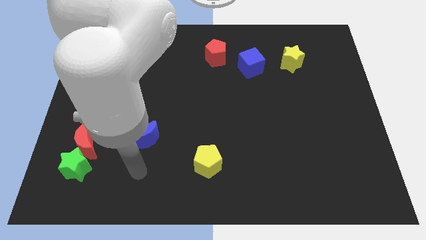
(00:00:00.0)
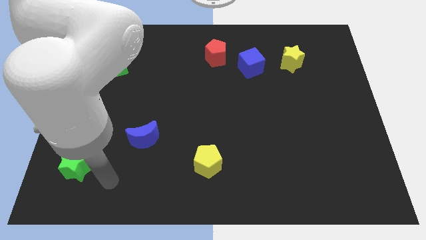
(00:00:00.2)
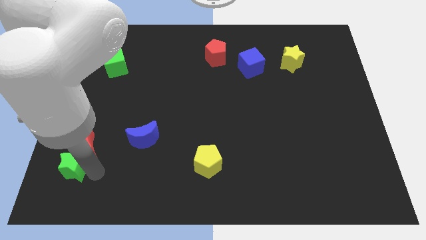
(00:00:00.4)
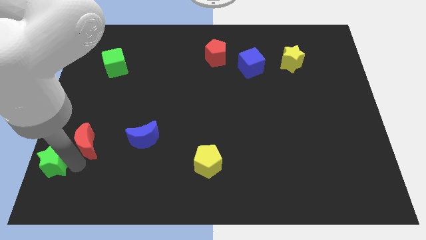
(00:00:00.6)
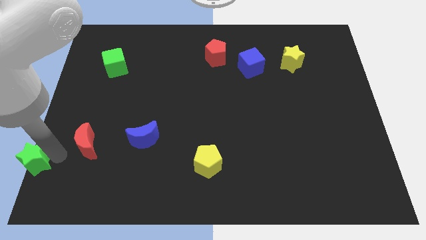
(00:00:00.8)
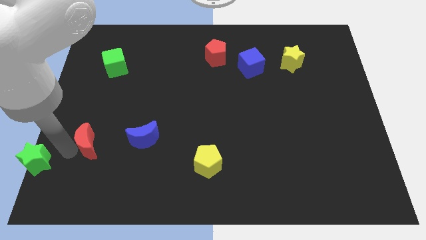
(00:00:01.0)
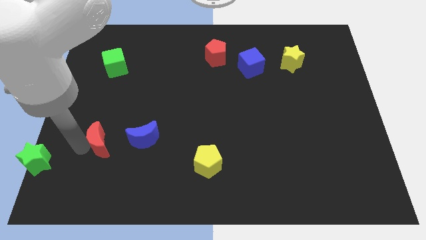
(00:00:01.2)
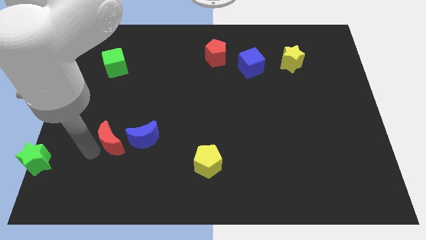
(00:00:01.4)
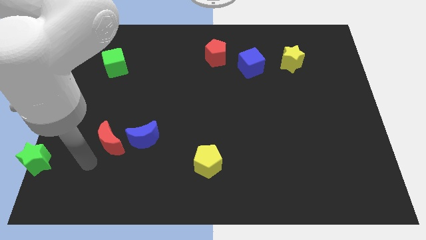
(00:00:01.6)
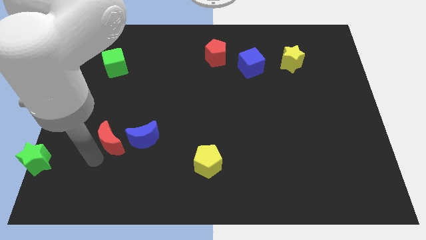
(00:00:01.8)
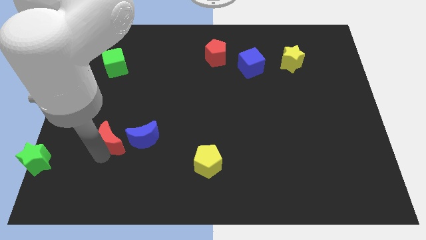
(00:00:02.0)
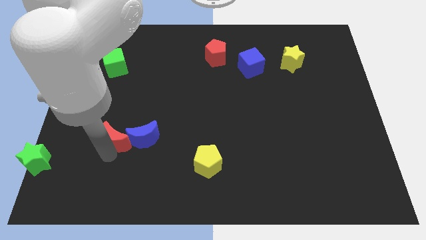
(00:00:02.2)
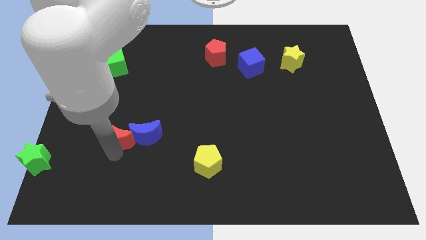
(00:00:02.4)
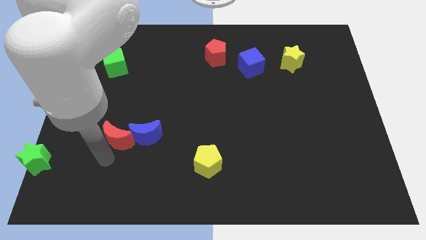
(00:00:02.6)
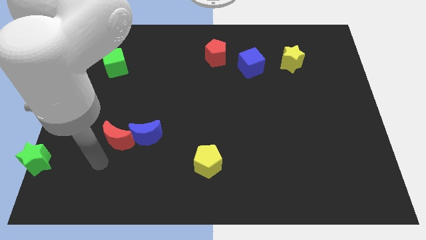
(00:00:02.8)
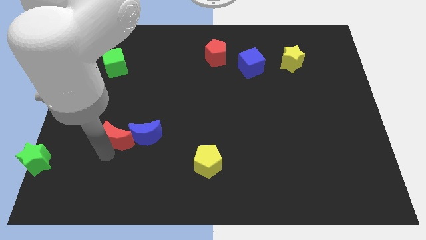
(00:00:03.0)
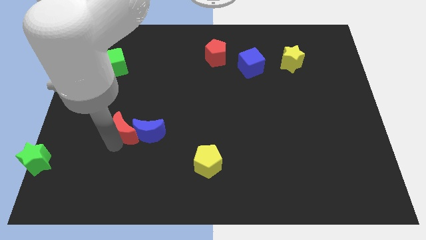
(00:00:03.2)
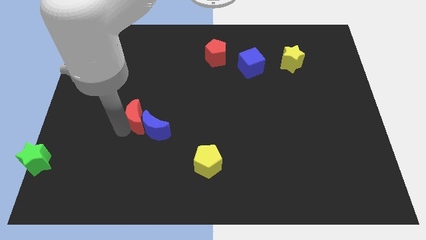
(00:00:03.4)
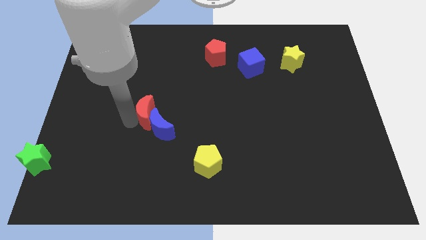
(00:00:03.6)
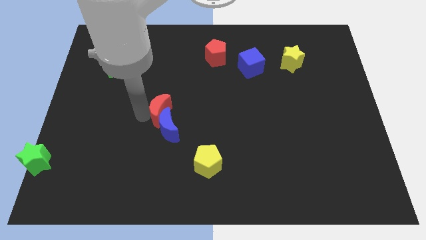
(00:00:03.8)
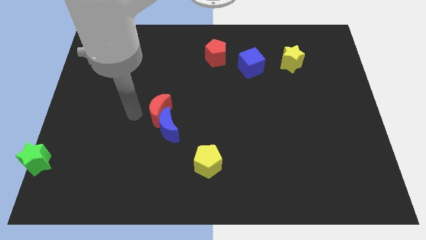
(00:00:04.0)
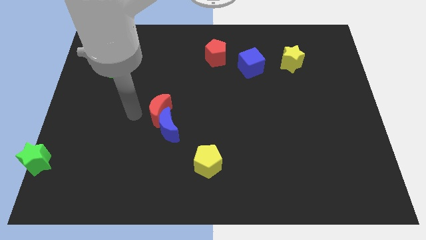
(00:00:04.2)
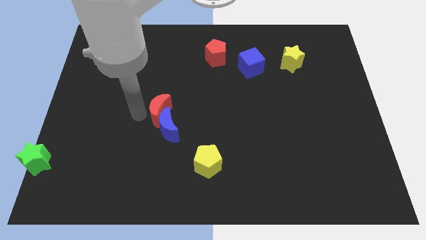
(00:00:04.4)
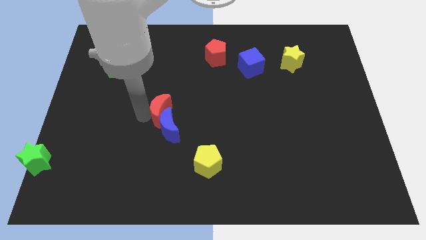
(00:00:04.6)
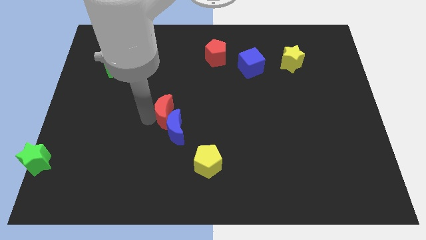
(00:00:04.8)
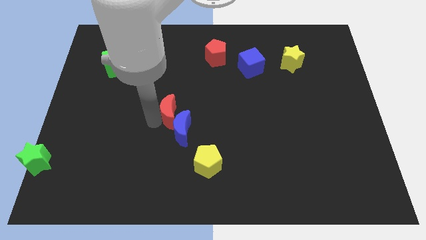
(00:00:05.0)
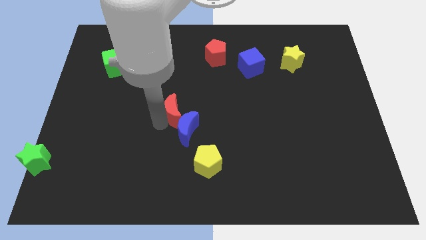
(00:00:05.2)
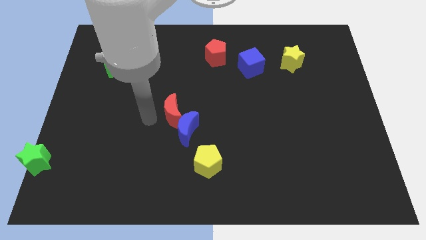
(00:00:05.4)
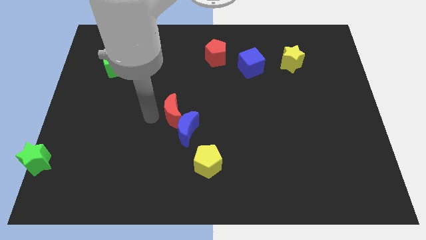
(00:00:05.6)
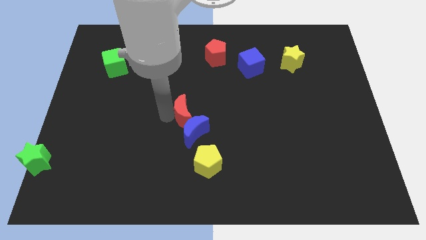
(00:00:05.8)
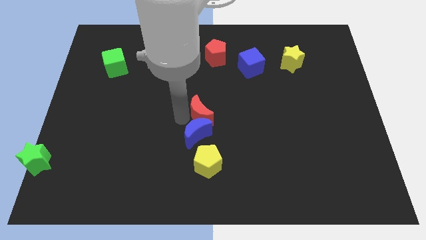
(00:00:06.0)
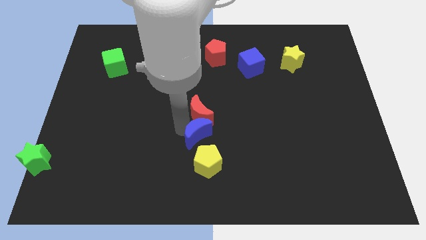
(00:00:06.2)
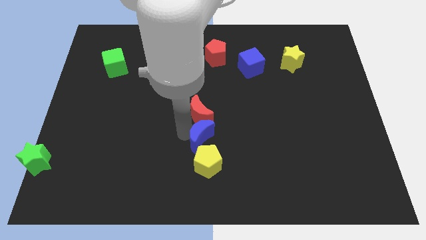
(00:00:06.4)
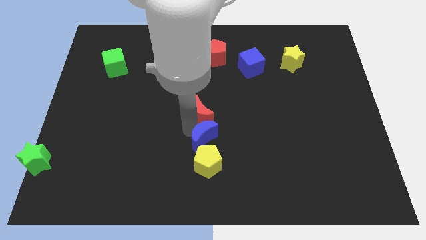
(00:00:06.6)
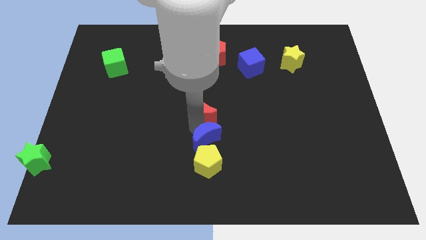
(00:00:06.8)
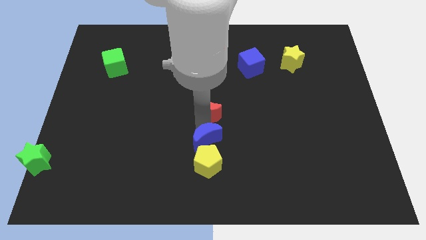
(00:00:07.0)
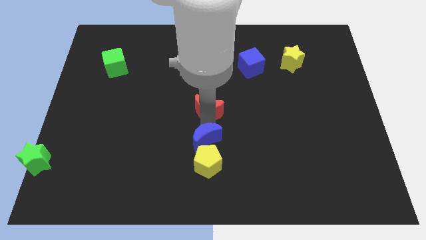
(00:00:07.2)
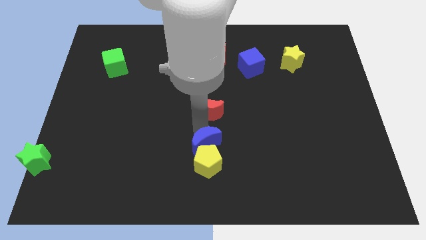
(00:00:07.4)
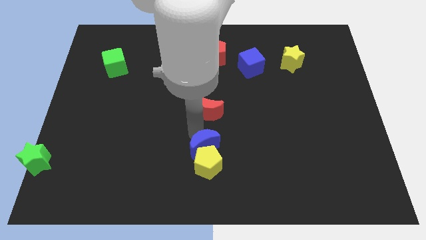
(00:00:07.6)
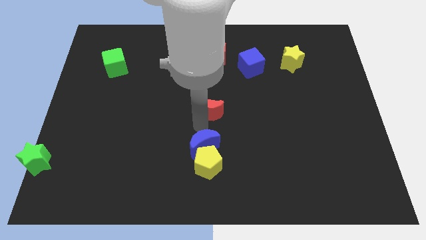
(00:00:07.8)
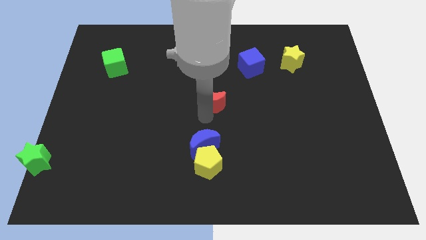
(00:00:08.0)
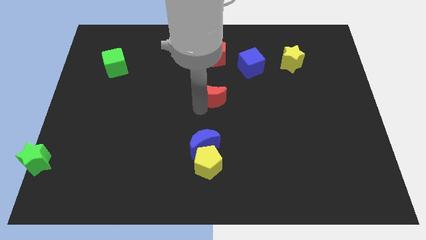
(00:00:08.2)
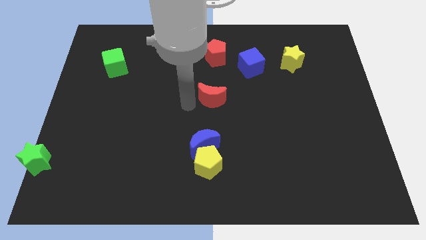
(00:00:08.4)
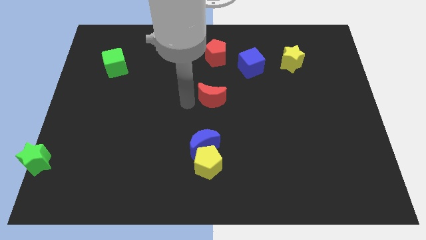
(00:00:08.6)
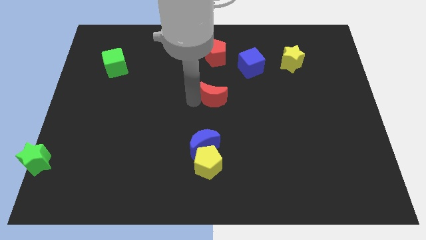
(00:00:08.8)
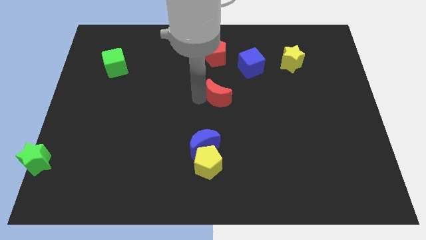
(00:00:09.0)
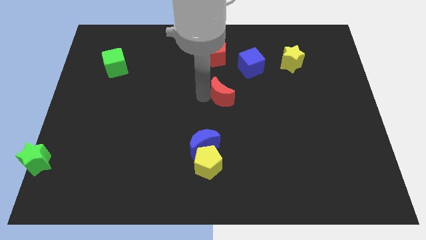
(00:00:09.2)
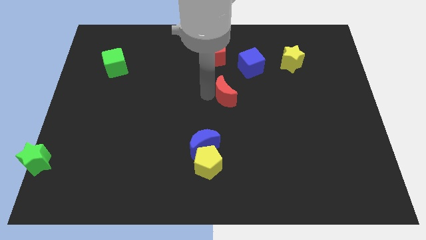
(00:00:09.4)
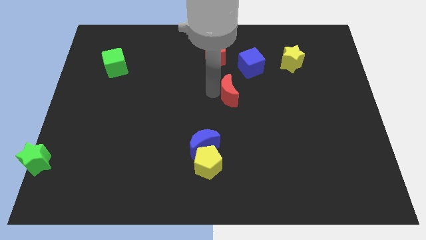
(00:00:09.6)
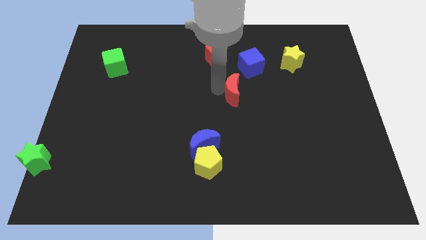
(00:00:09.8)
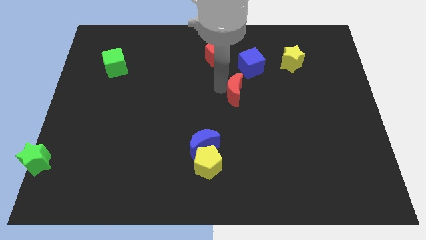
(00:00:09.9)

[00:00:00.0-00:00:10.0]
move the red moon to the bottom of the blue cube

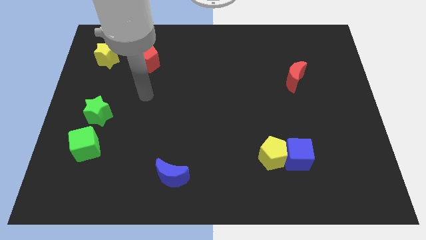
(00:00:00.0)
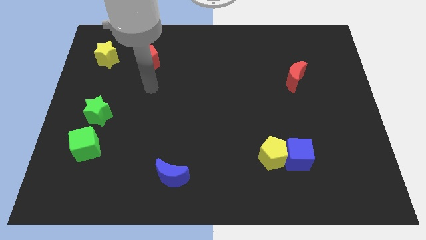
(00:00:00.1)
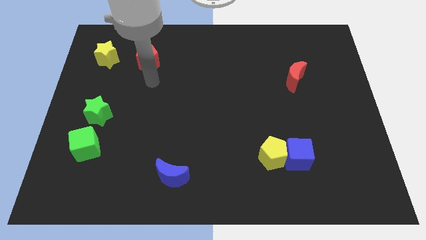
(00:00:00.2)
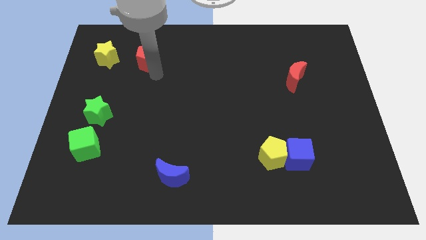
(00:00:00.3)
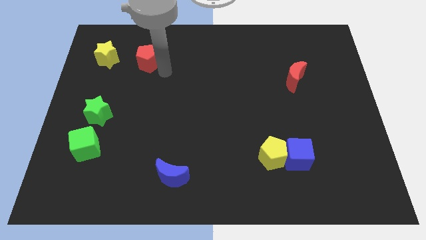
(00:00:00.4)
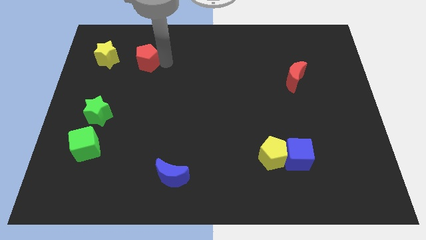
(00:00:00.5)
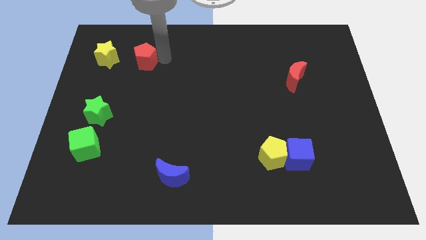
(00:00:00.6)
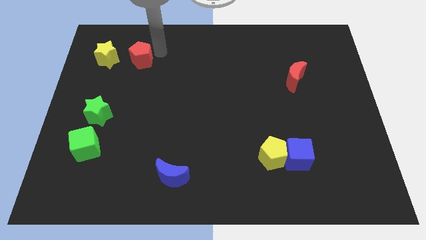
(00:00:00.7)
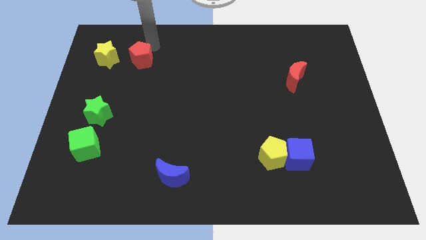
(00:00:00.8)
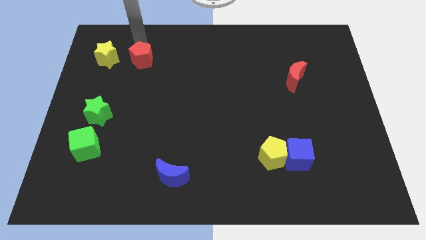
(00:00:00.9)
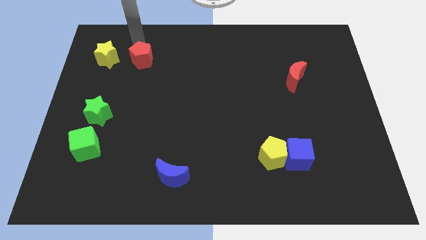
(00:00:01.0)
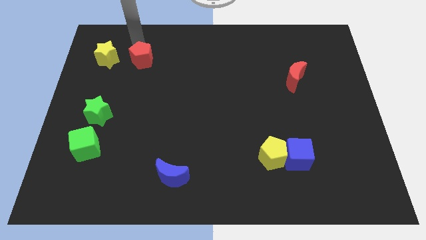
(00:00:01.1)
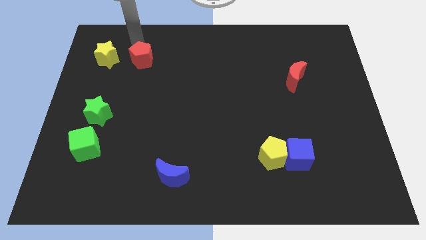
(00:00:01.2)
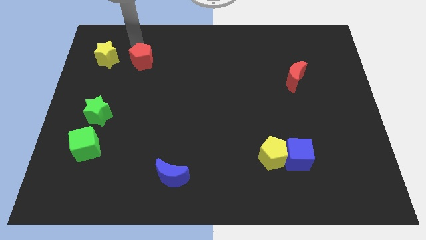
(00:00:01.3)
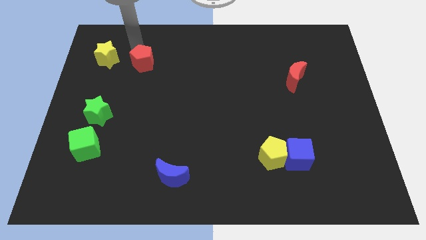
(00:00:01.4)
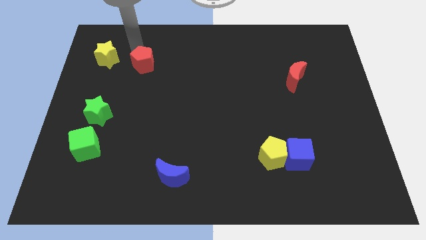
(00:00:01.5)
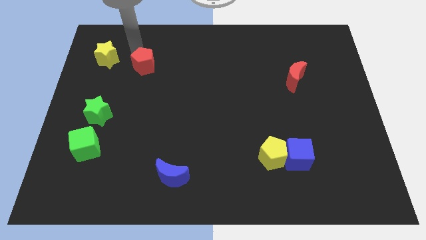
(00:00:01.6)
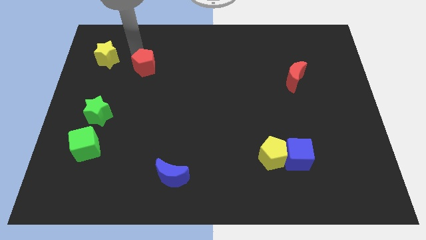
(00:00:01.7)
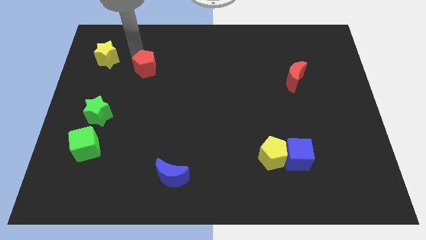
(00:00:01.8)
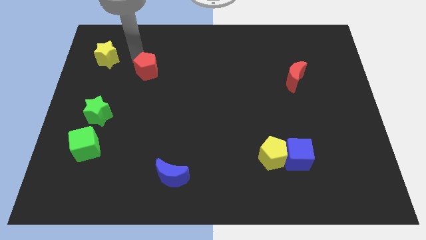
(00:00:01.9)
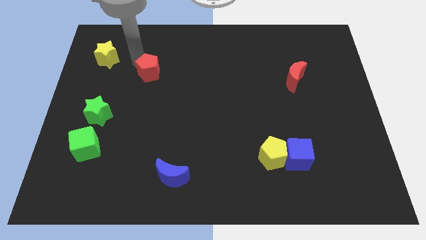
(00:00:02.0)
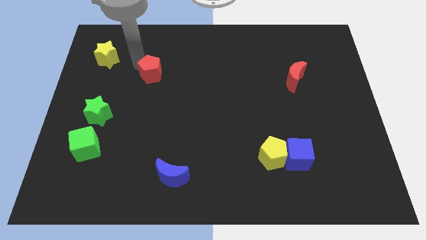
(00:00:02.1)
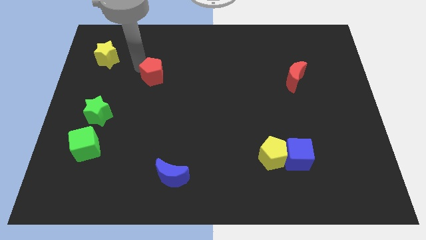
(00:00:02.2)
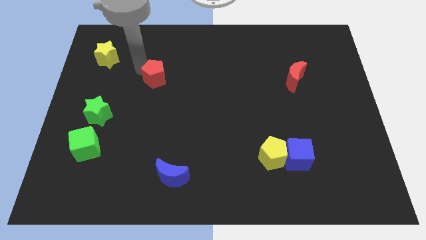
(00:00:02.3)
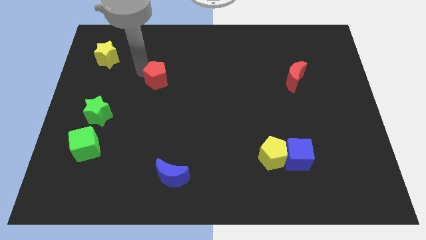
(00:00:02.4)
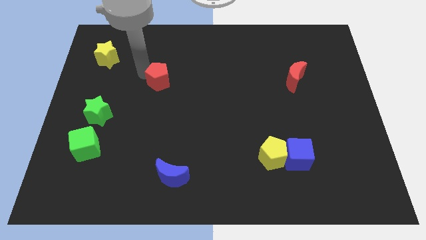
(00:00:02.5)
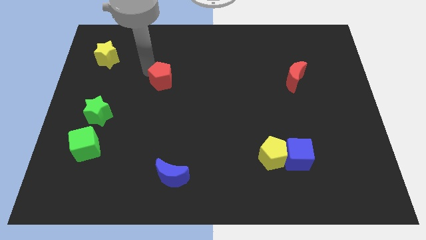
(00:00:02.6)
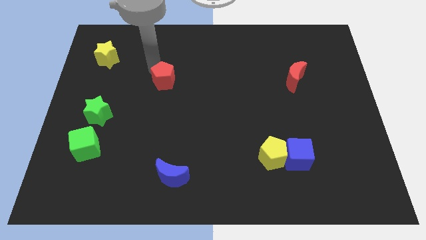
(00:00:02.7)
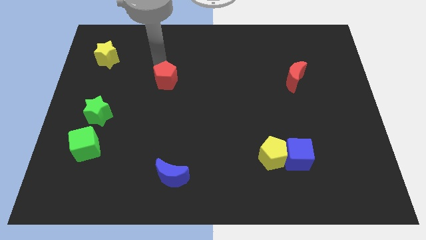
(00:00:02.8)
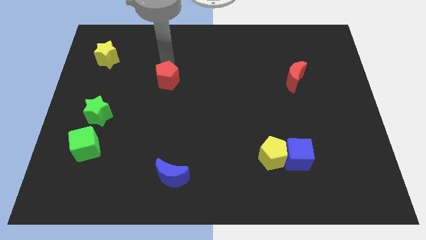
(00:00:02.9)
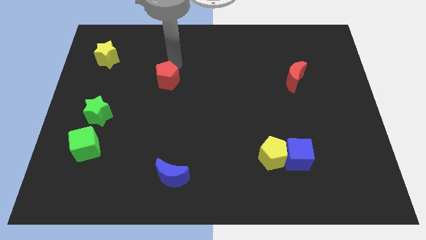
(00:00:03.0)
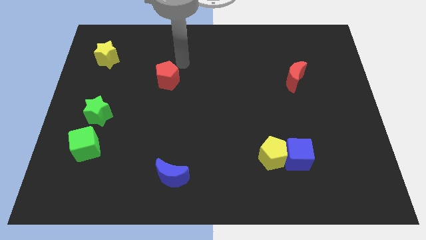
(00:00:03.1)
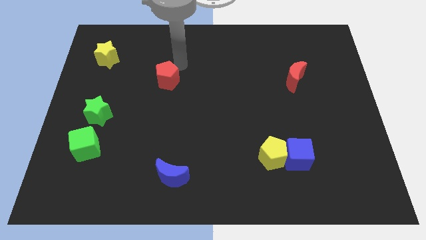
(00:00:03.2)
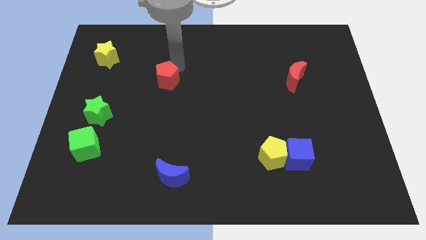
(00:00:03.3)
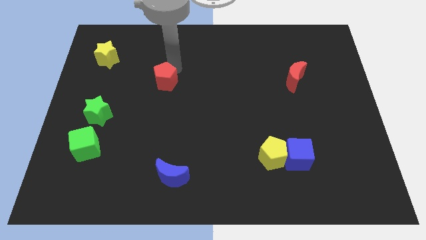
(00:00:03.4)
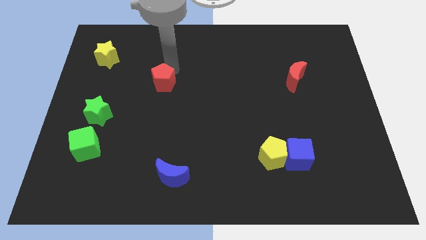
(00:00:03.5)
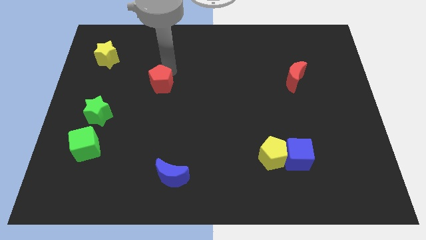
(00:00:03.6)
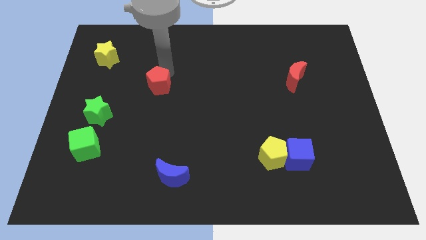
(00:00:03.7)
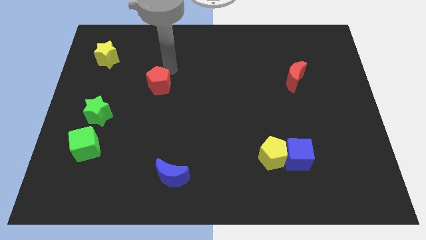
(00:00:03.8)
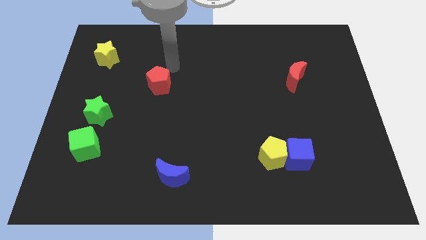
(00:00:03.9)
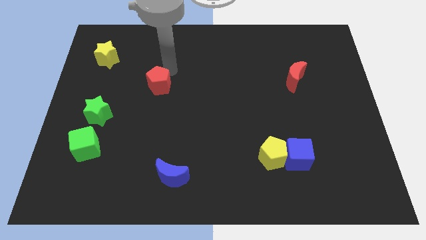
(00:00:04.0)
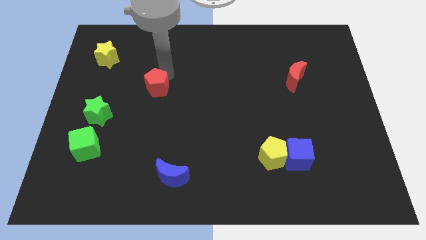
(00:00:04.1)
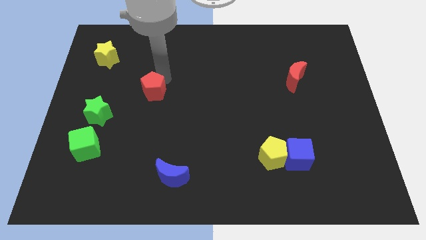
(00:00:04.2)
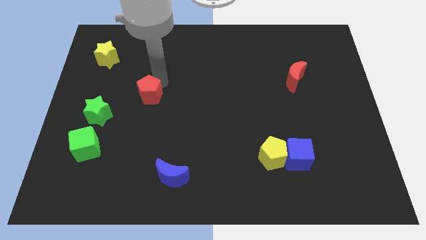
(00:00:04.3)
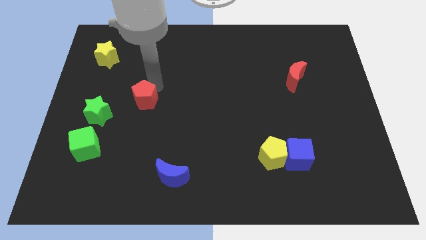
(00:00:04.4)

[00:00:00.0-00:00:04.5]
move the red pentagon to the right side of the green star
